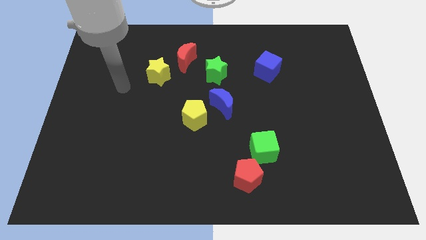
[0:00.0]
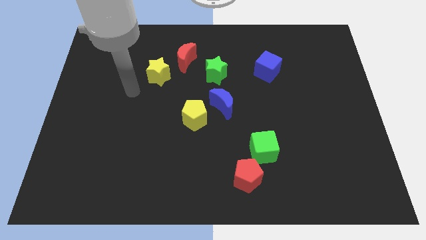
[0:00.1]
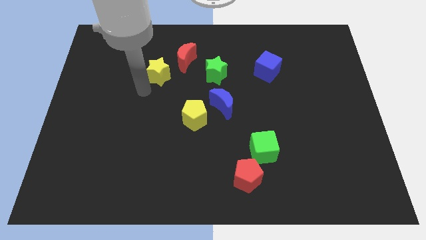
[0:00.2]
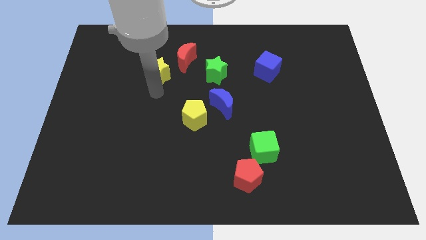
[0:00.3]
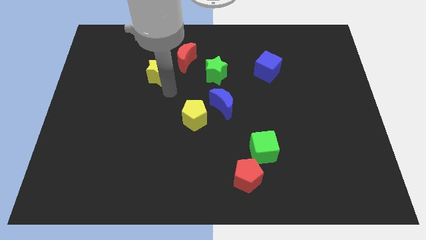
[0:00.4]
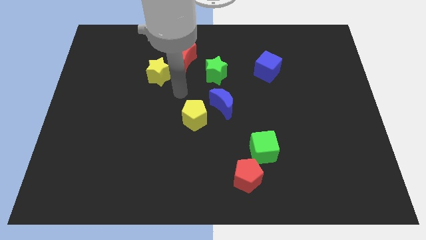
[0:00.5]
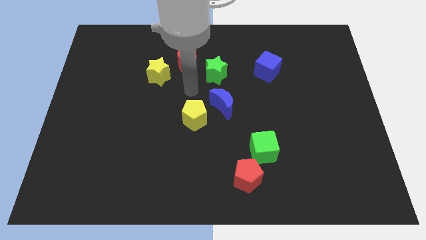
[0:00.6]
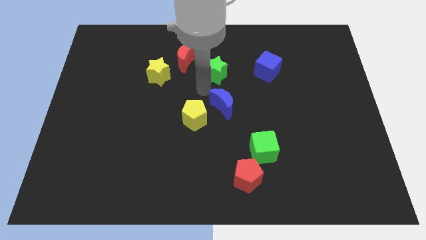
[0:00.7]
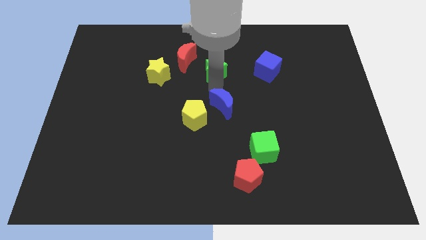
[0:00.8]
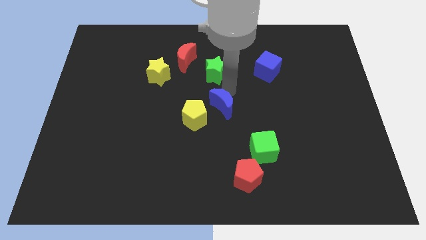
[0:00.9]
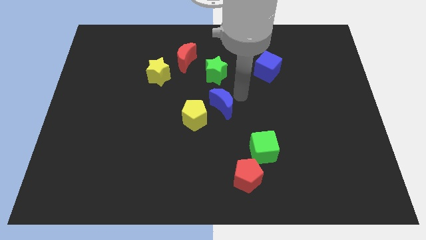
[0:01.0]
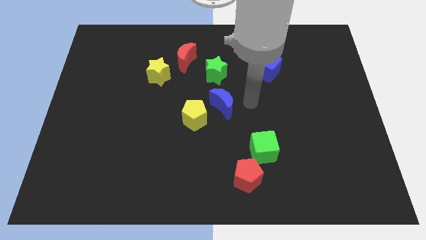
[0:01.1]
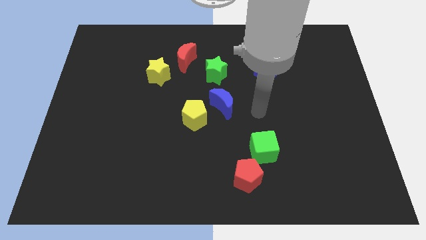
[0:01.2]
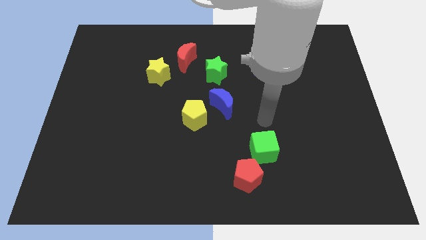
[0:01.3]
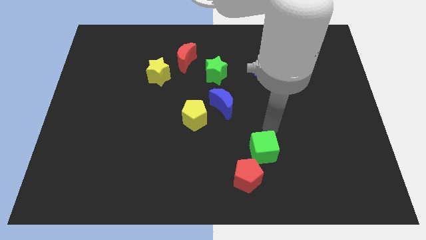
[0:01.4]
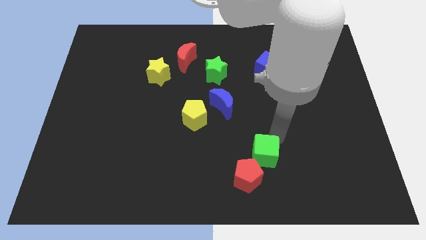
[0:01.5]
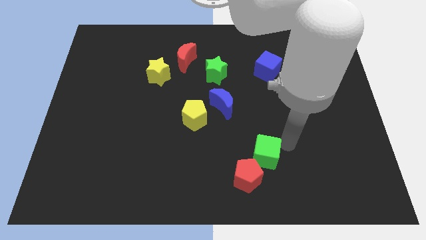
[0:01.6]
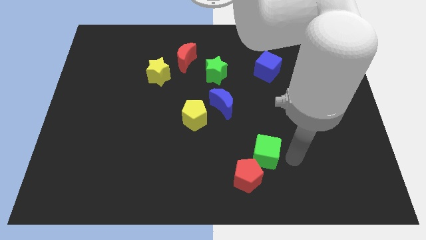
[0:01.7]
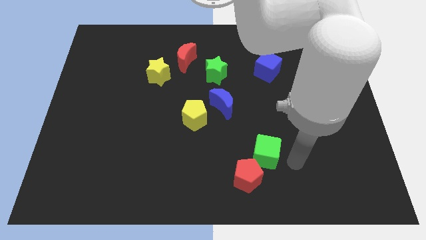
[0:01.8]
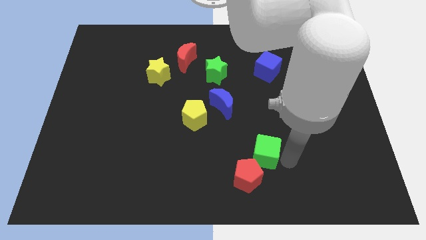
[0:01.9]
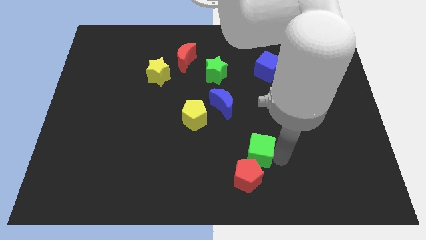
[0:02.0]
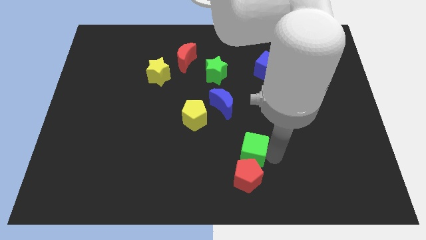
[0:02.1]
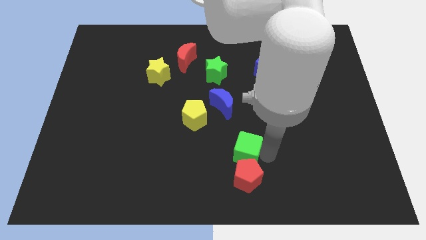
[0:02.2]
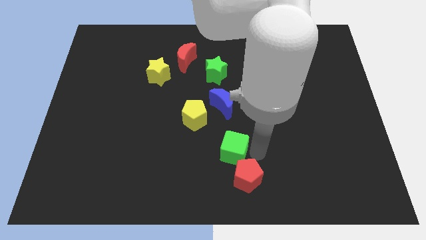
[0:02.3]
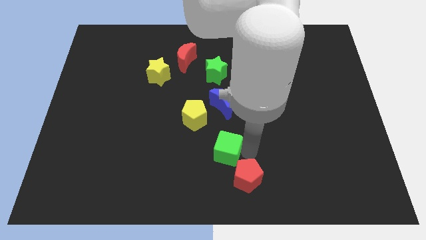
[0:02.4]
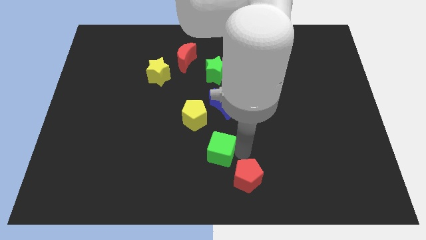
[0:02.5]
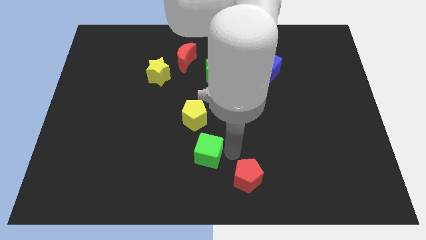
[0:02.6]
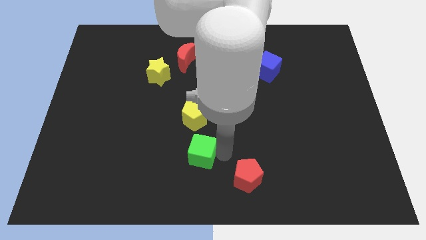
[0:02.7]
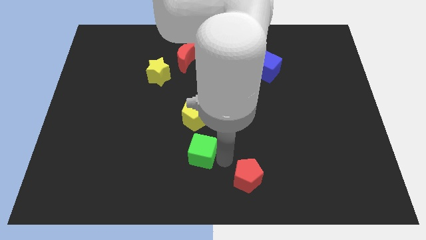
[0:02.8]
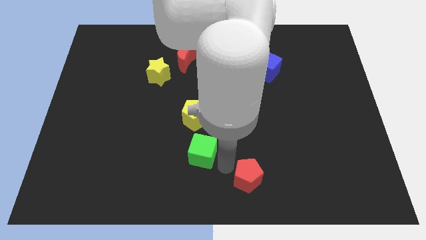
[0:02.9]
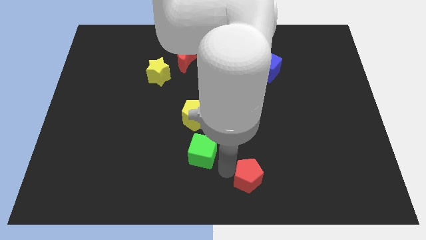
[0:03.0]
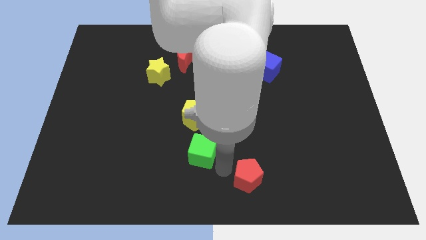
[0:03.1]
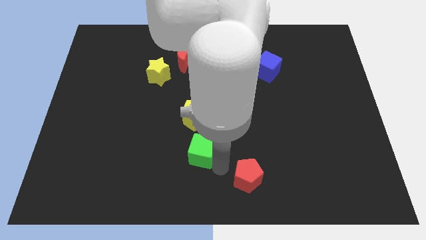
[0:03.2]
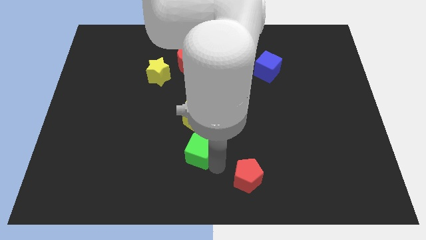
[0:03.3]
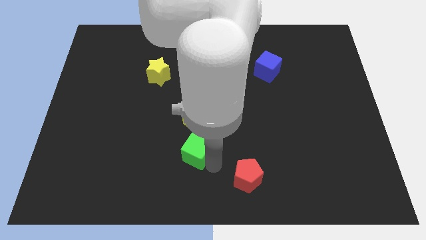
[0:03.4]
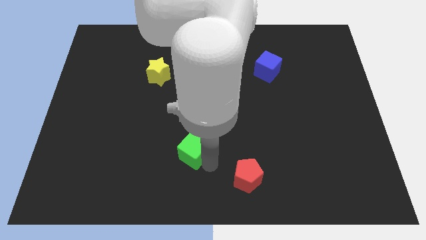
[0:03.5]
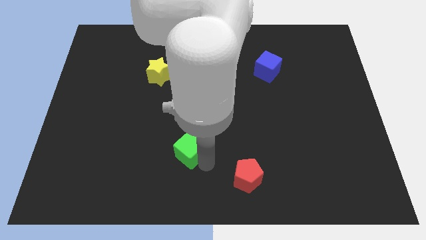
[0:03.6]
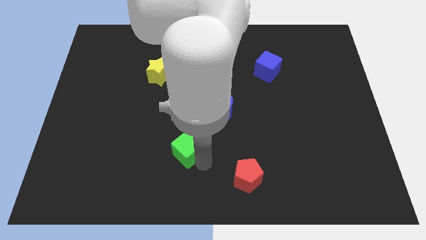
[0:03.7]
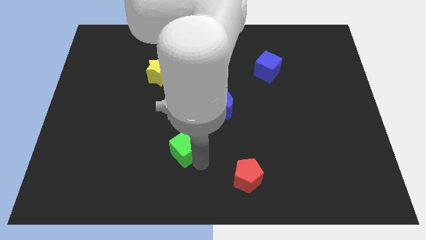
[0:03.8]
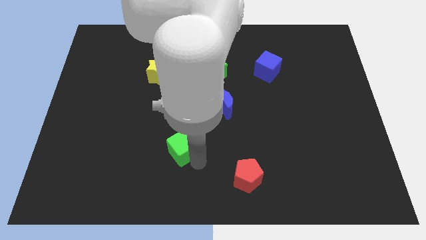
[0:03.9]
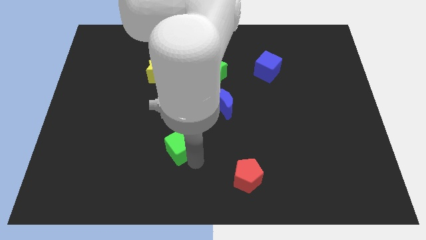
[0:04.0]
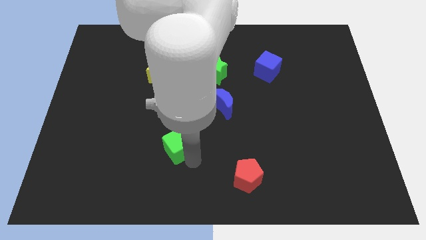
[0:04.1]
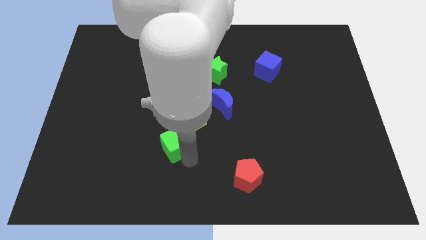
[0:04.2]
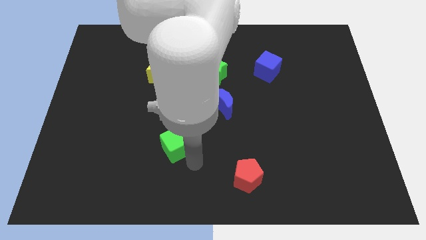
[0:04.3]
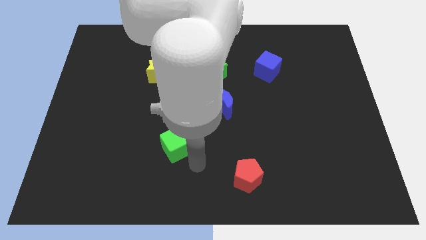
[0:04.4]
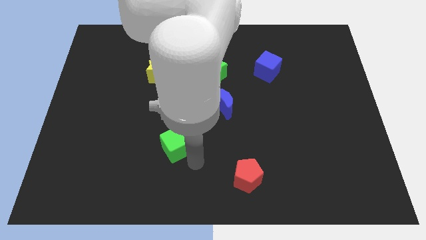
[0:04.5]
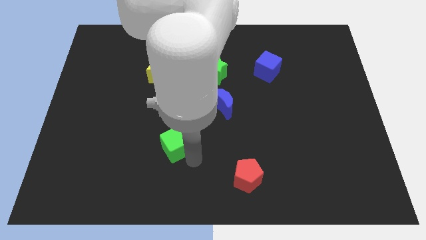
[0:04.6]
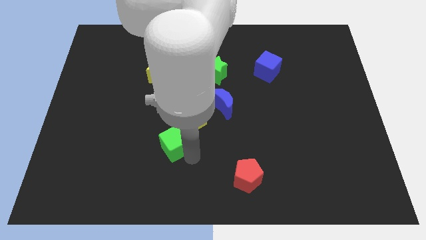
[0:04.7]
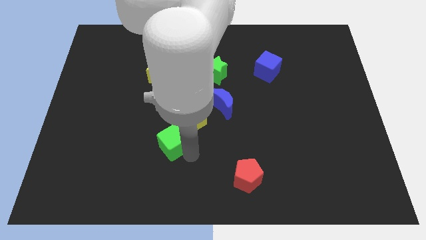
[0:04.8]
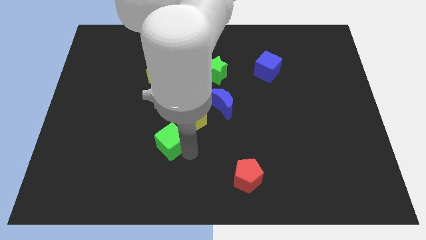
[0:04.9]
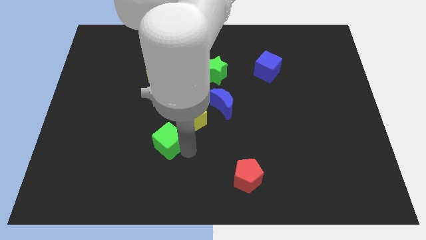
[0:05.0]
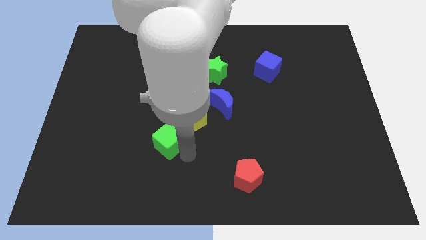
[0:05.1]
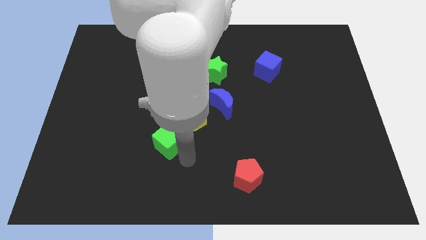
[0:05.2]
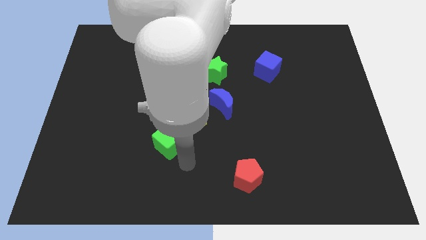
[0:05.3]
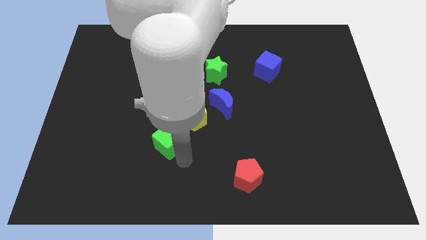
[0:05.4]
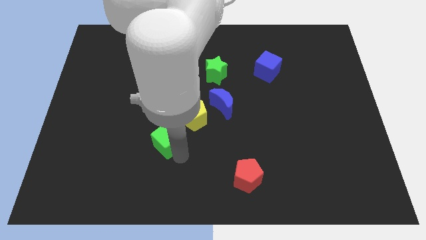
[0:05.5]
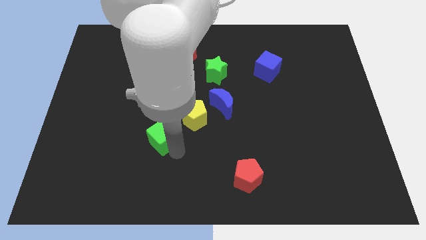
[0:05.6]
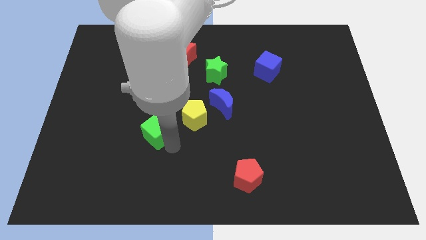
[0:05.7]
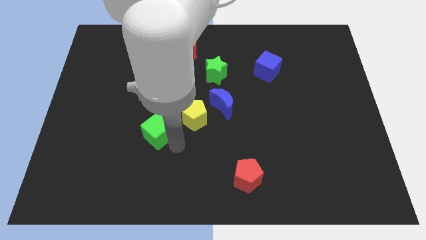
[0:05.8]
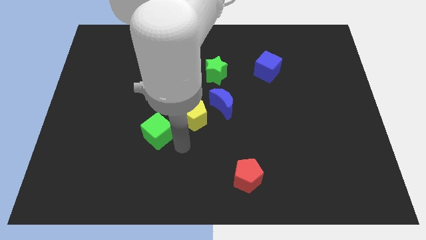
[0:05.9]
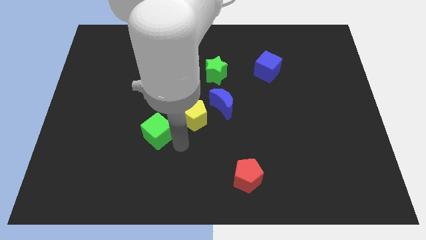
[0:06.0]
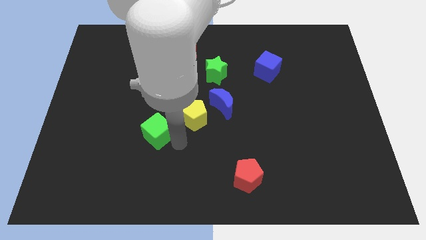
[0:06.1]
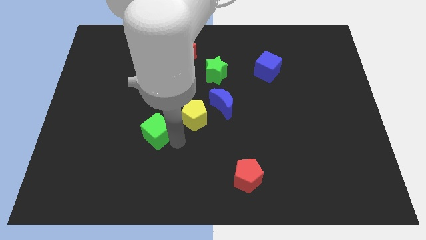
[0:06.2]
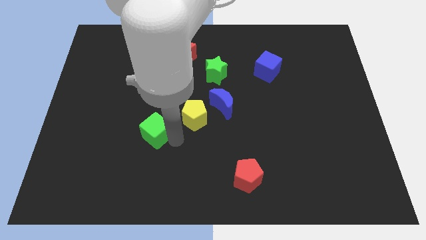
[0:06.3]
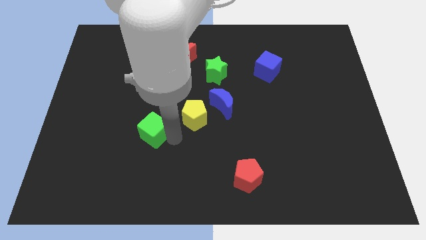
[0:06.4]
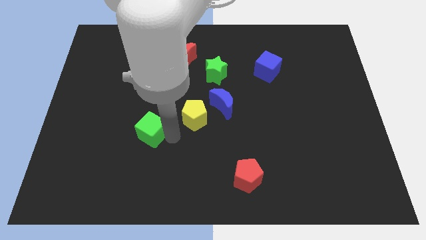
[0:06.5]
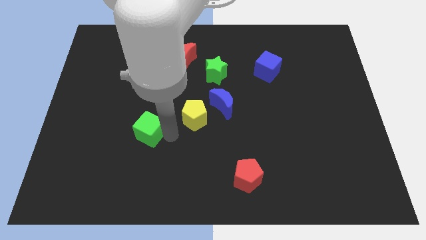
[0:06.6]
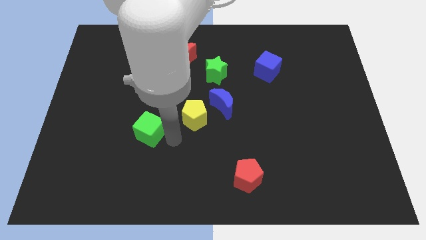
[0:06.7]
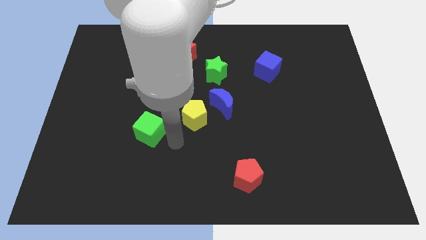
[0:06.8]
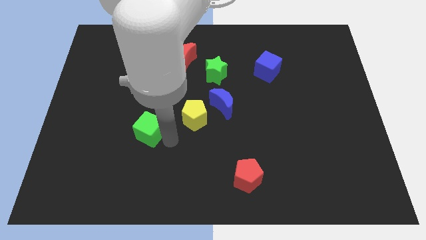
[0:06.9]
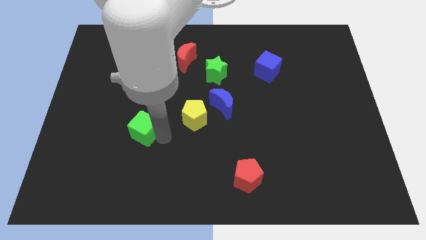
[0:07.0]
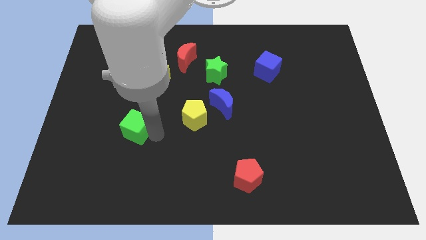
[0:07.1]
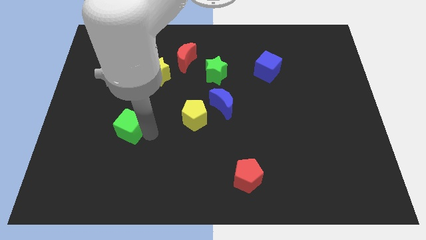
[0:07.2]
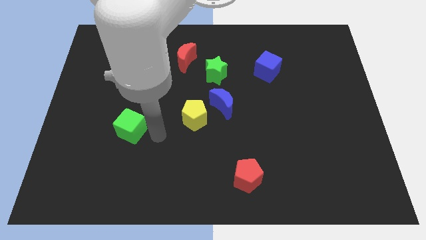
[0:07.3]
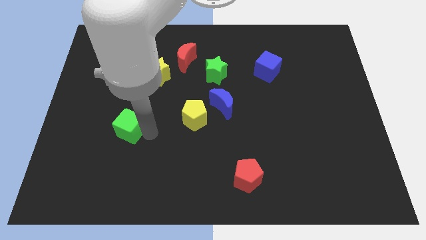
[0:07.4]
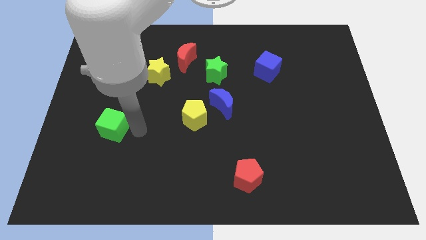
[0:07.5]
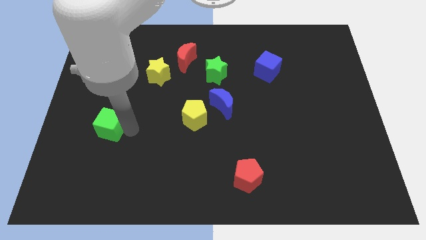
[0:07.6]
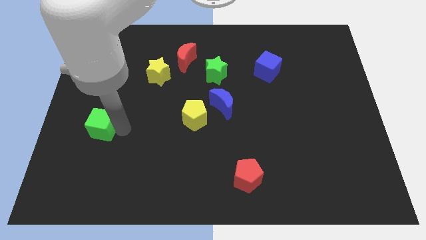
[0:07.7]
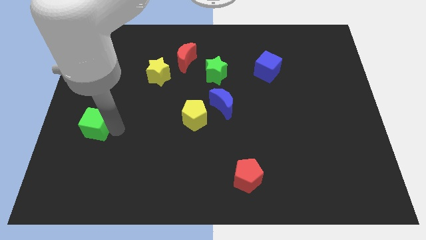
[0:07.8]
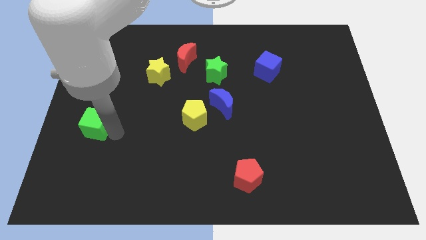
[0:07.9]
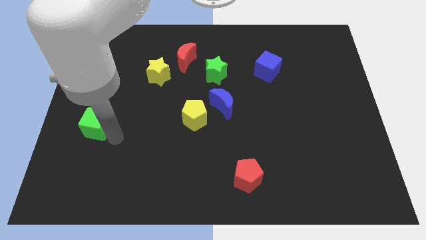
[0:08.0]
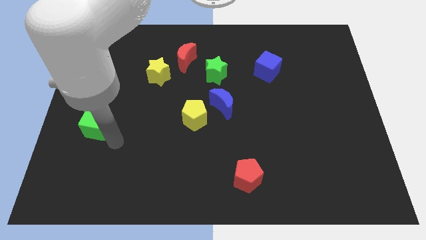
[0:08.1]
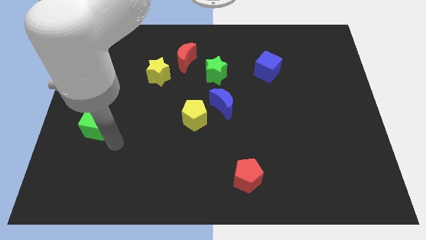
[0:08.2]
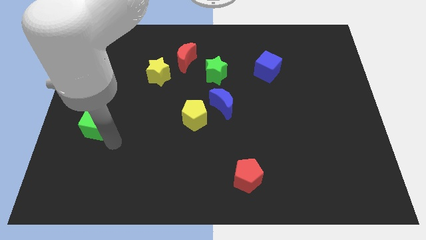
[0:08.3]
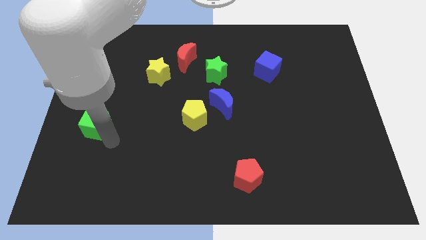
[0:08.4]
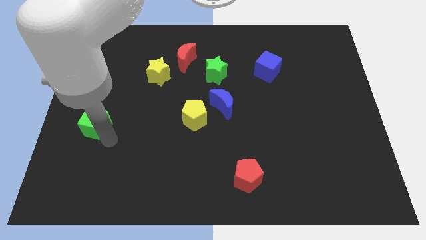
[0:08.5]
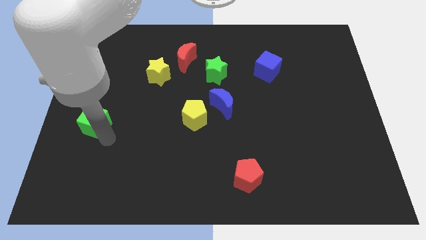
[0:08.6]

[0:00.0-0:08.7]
push the green cube to the center left
